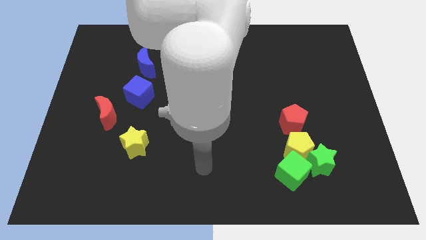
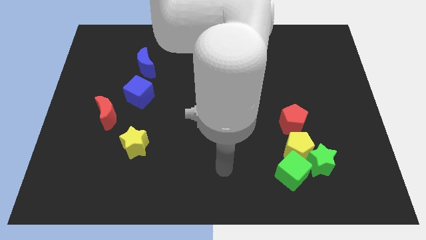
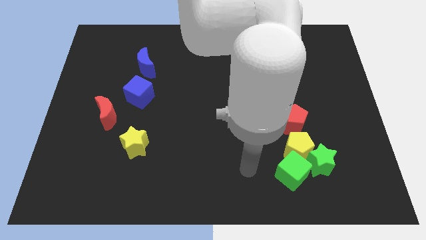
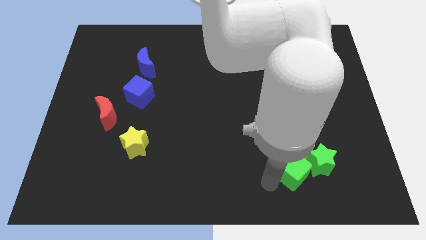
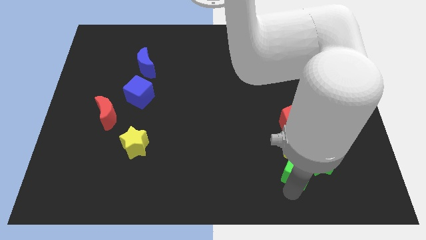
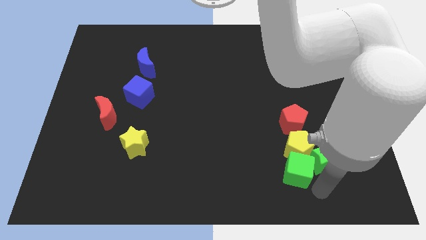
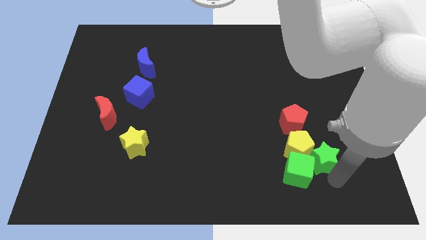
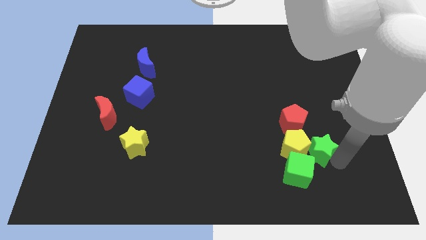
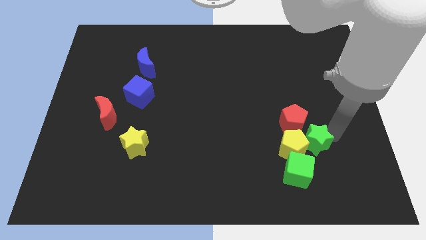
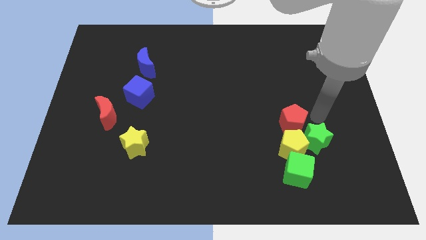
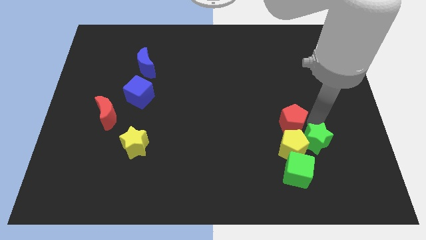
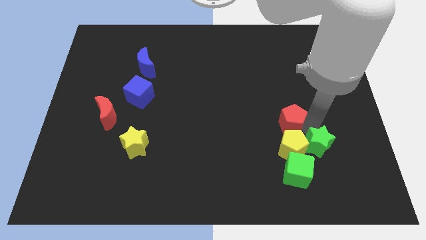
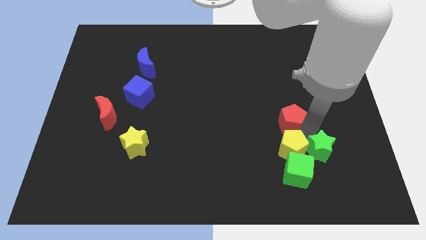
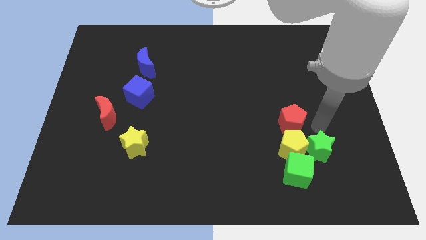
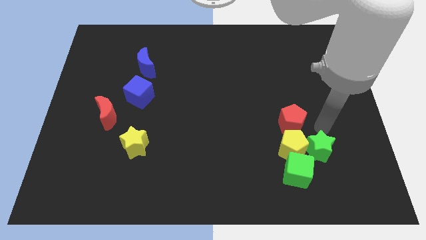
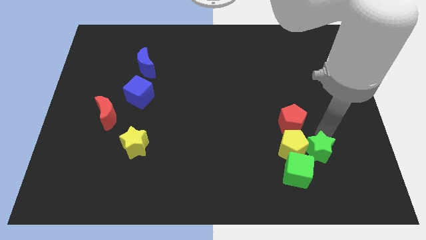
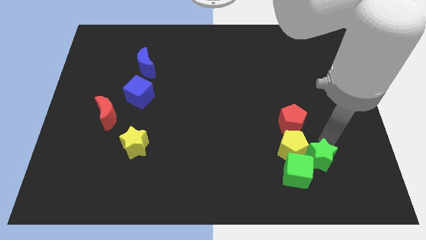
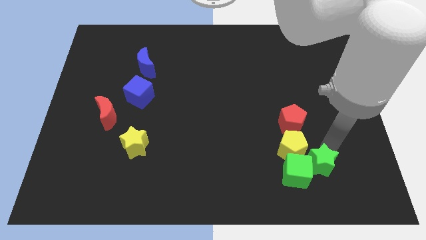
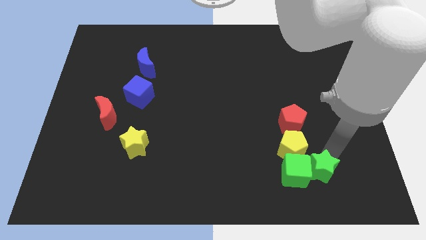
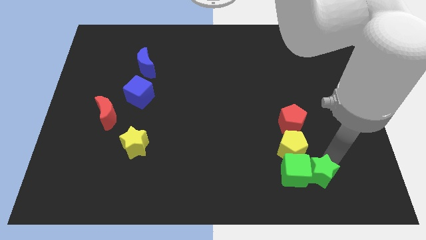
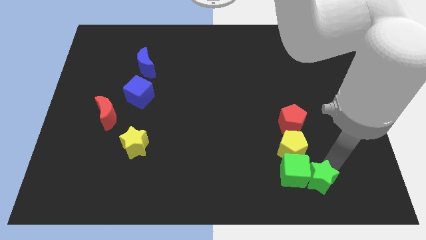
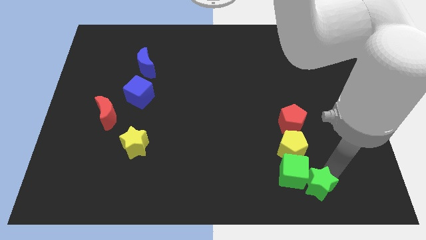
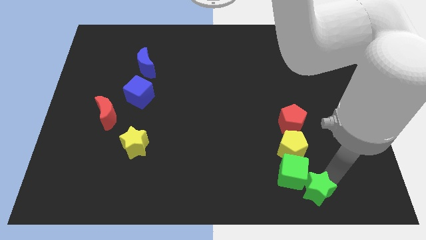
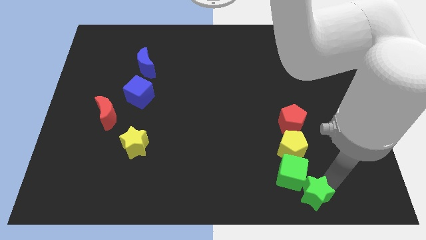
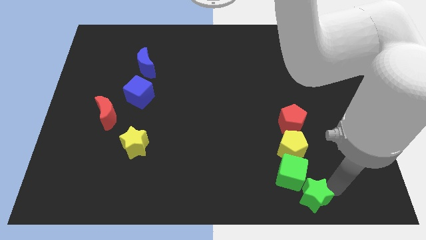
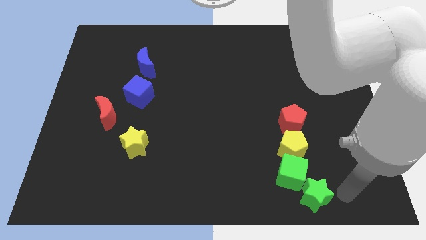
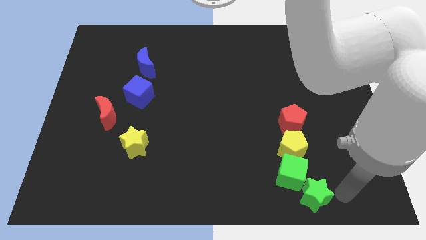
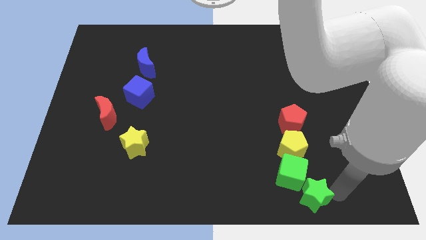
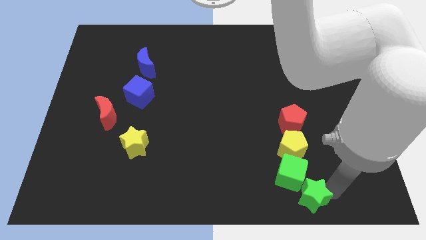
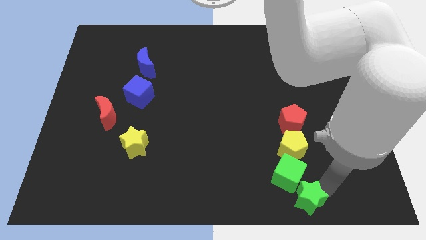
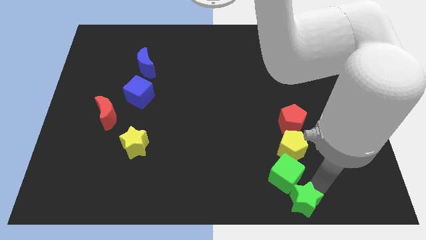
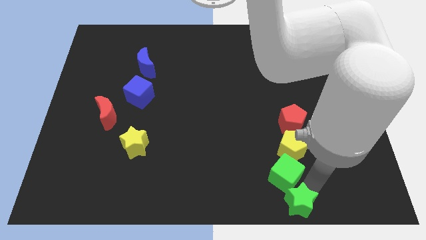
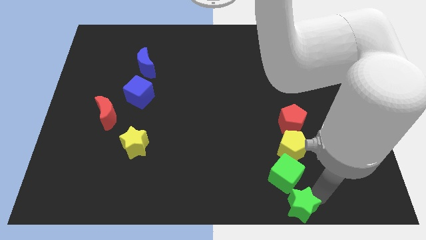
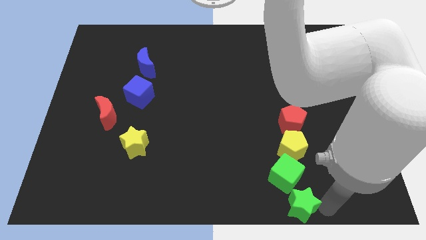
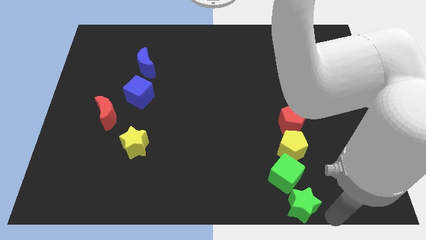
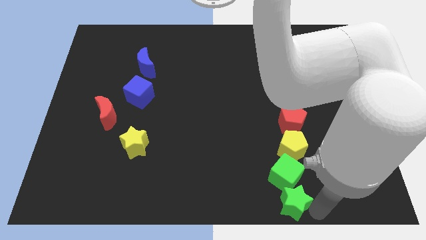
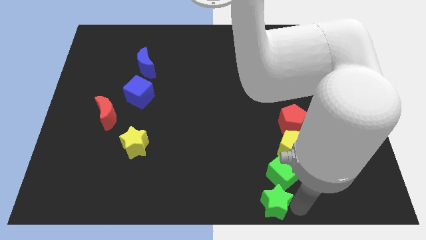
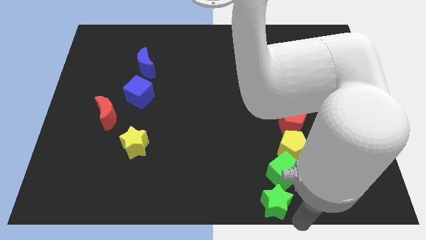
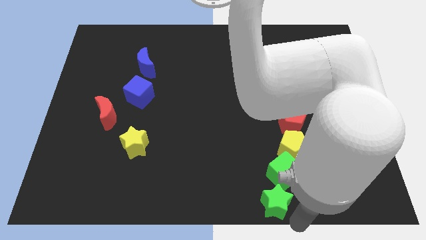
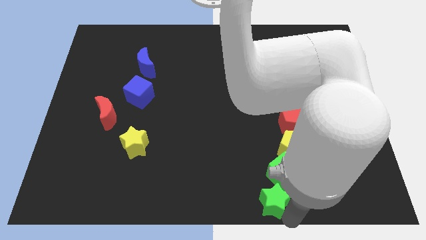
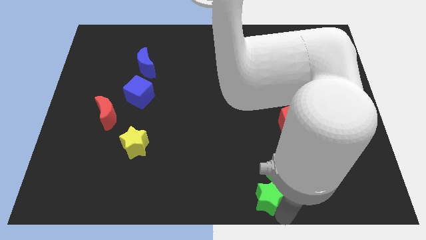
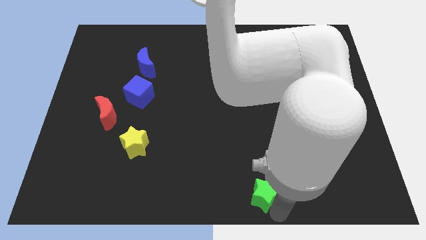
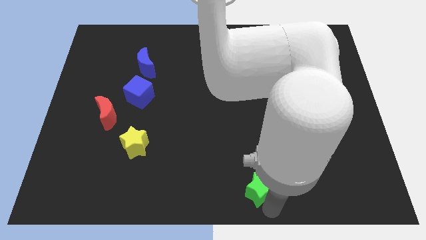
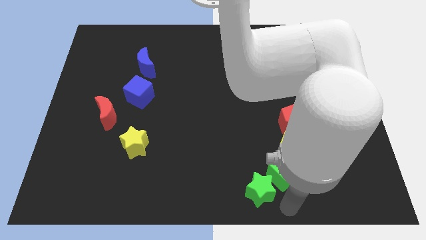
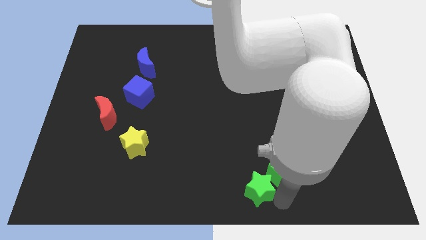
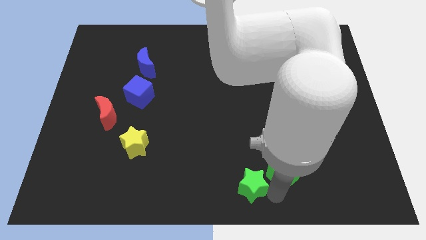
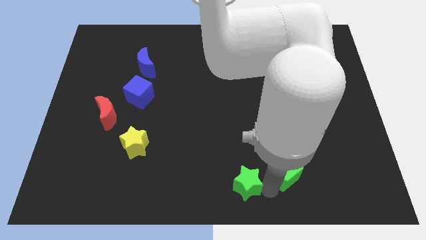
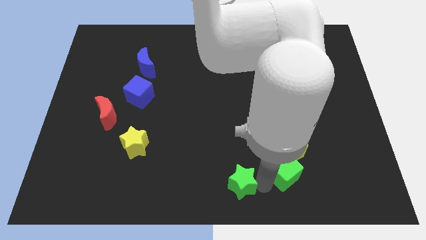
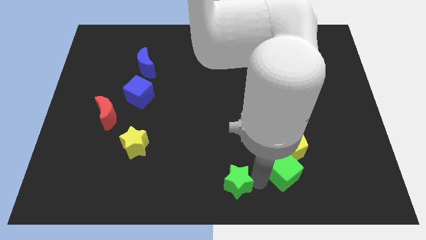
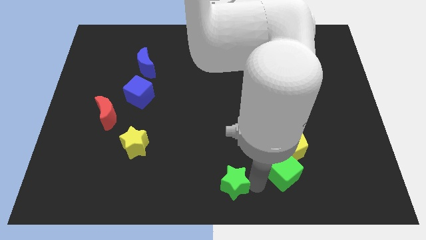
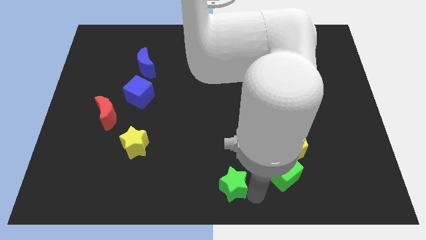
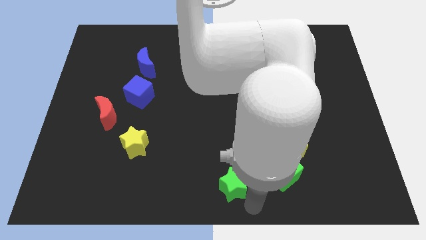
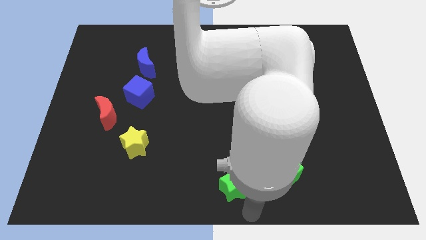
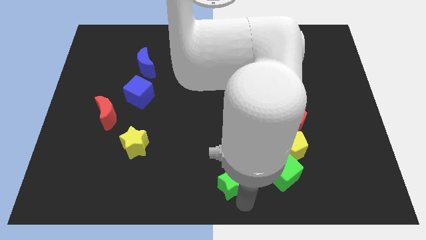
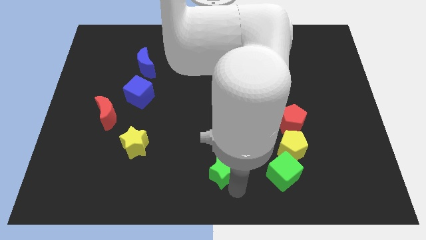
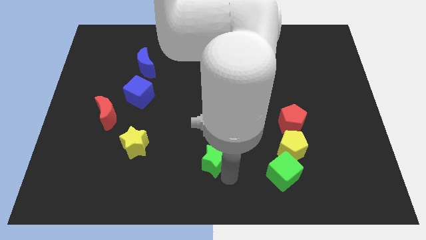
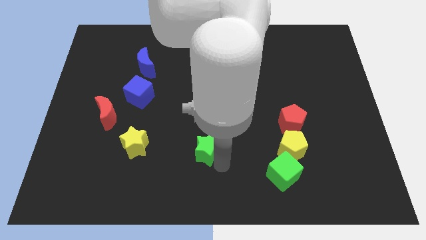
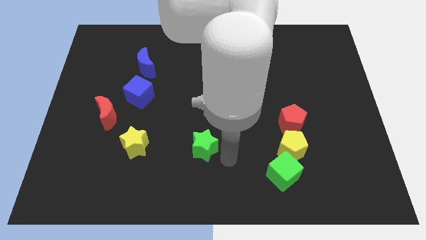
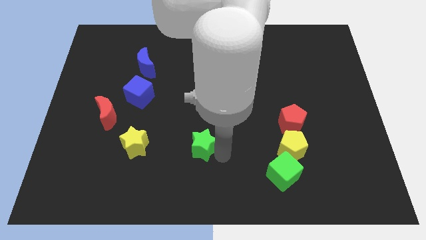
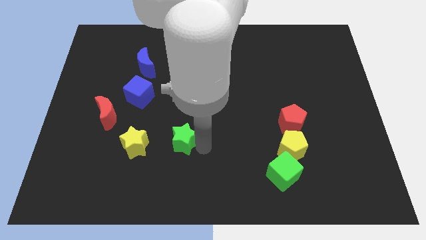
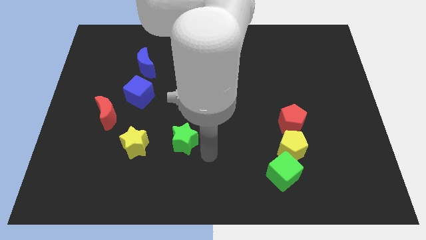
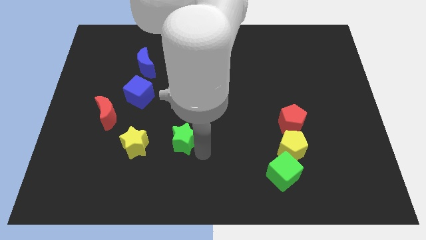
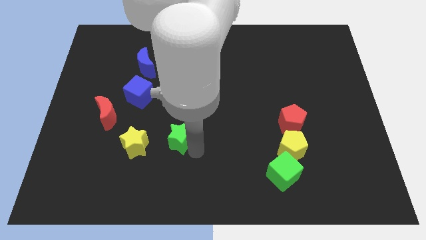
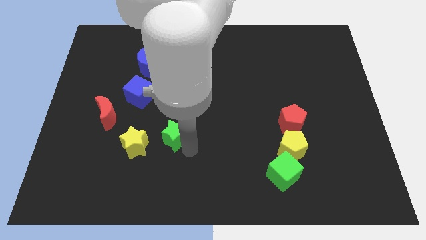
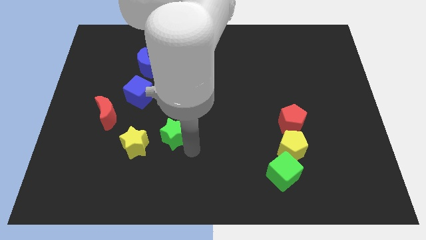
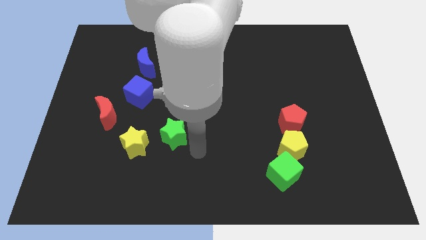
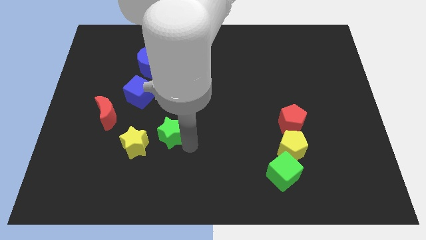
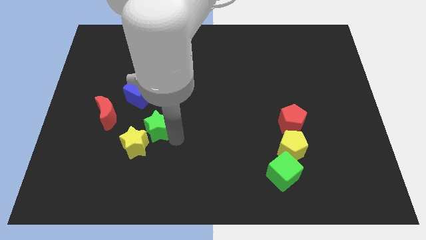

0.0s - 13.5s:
put the green star to the right side of the red moon
